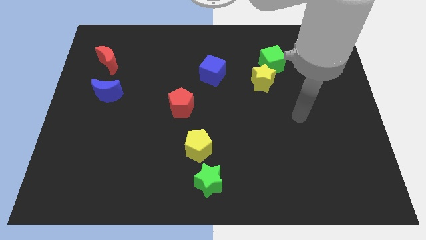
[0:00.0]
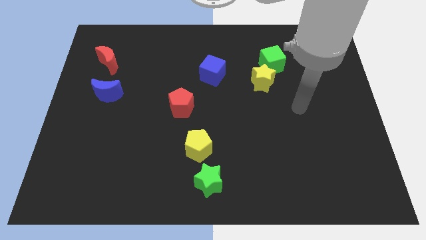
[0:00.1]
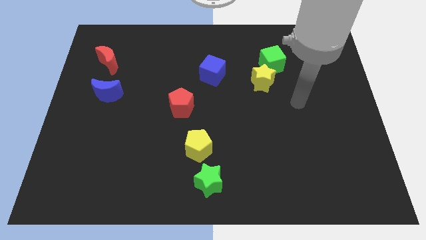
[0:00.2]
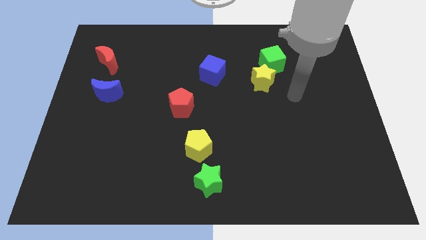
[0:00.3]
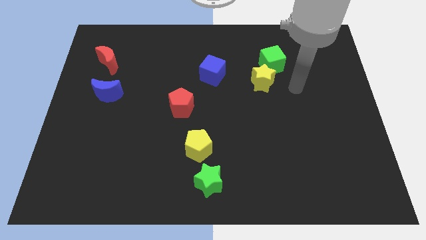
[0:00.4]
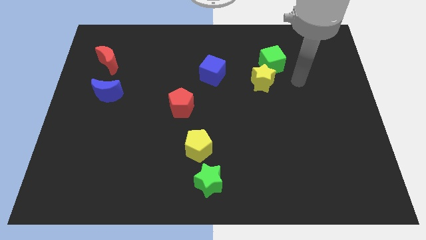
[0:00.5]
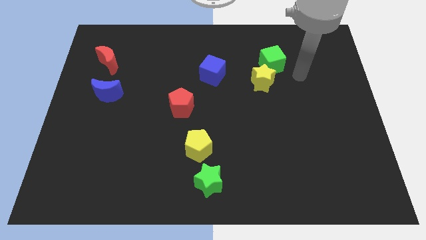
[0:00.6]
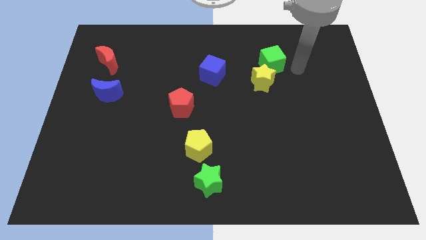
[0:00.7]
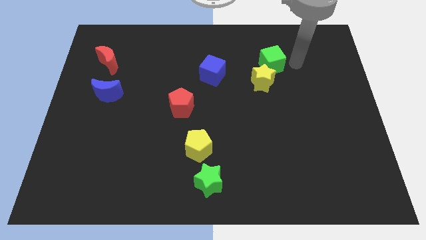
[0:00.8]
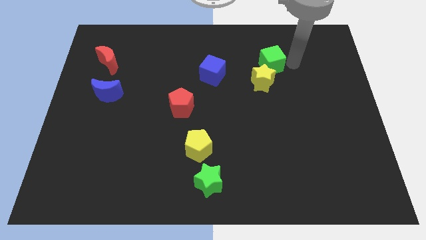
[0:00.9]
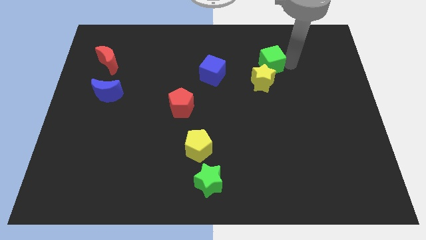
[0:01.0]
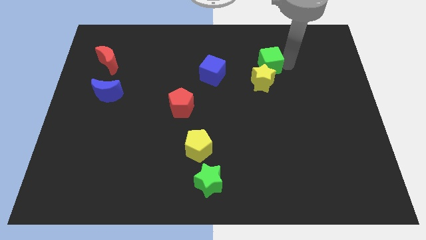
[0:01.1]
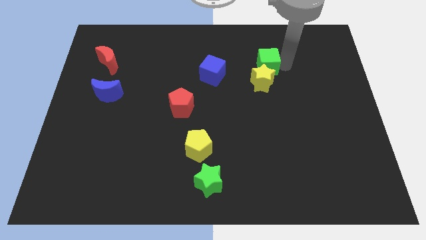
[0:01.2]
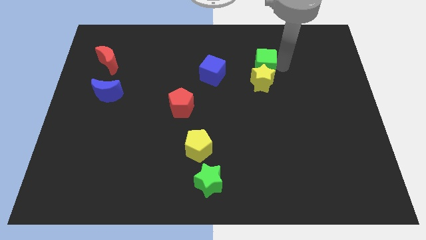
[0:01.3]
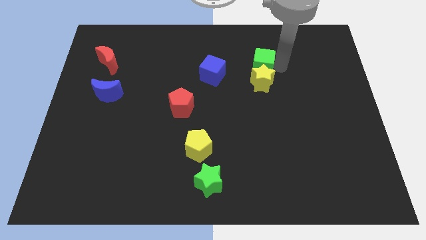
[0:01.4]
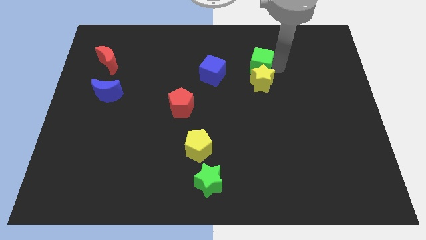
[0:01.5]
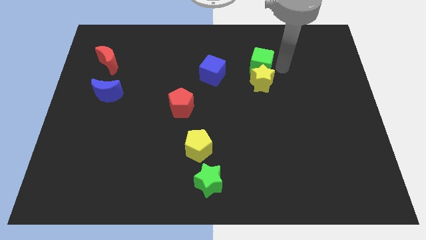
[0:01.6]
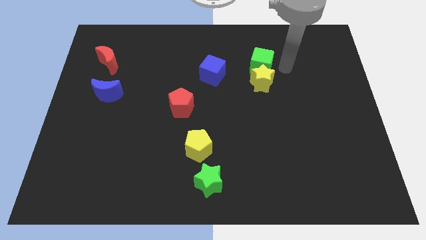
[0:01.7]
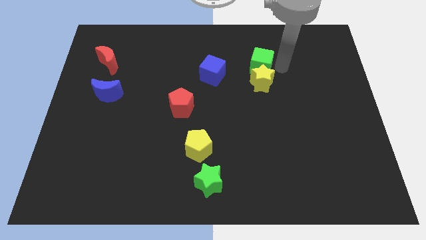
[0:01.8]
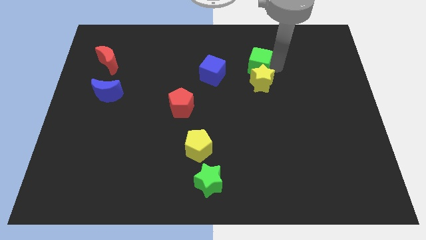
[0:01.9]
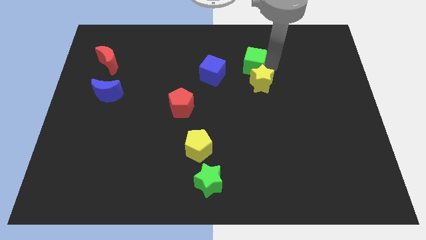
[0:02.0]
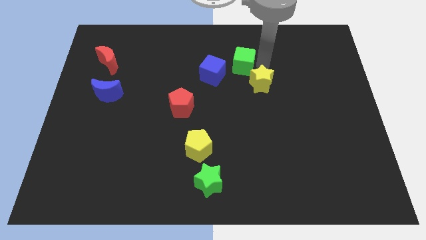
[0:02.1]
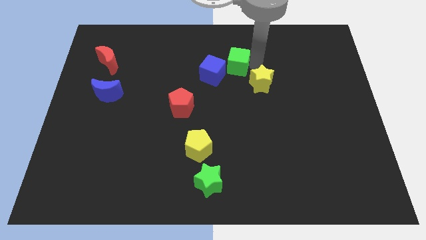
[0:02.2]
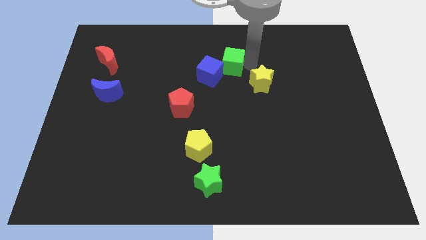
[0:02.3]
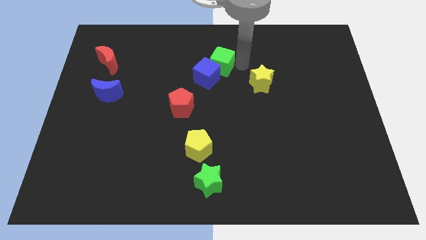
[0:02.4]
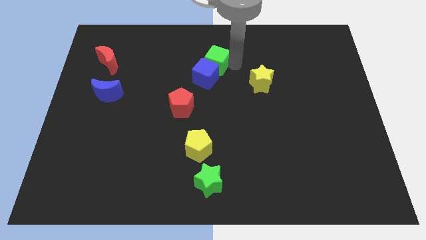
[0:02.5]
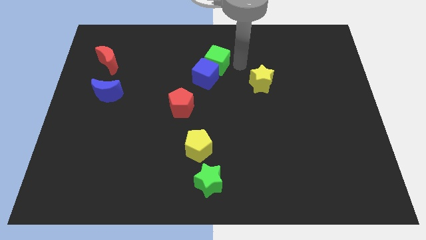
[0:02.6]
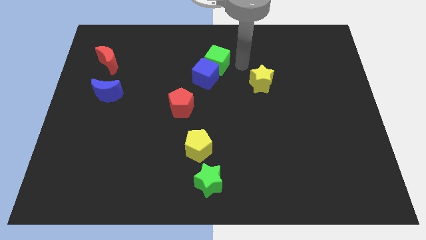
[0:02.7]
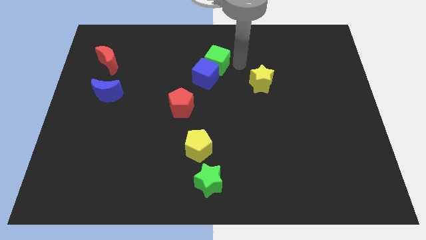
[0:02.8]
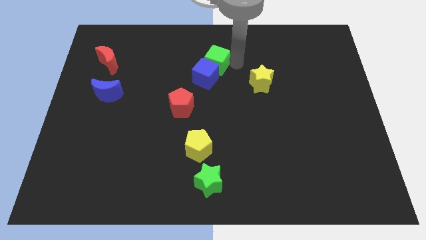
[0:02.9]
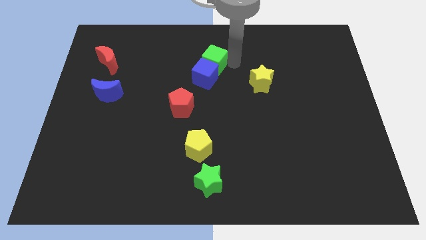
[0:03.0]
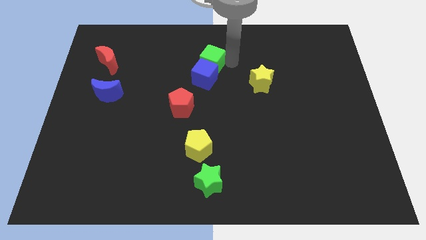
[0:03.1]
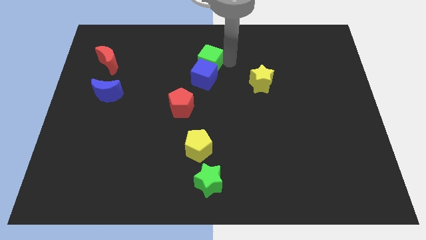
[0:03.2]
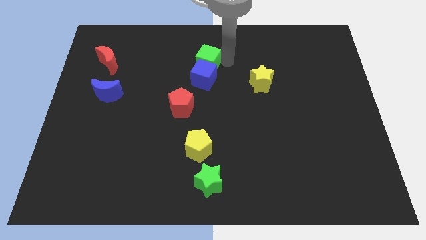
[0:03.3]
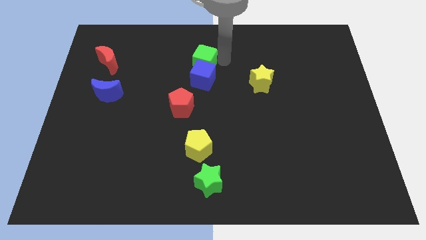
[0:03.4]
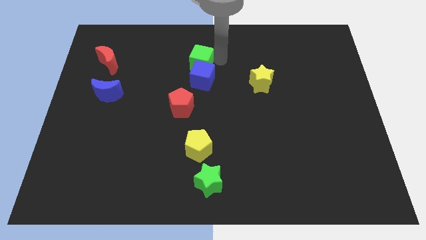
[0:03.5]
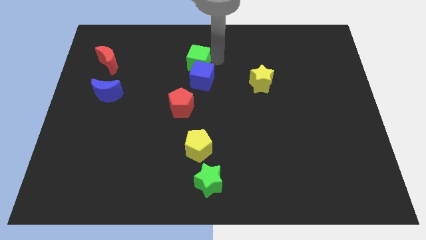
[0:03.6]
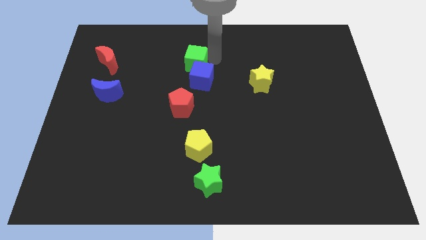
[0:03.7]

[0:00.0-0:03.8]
push the green cube left

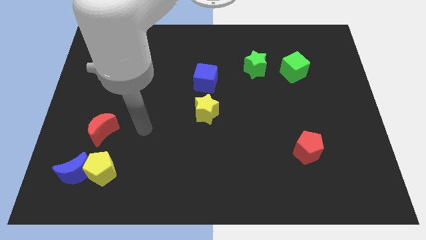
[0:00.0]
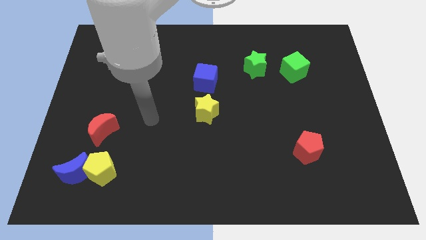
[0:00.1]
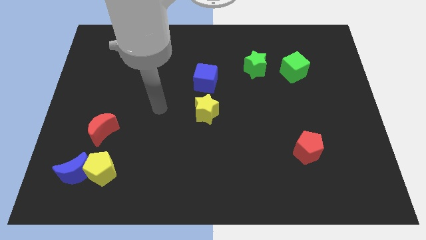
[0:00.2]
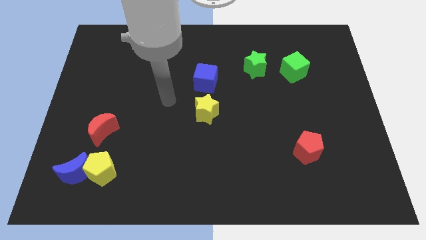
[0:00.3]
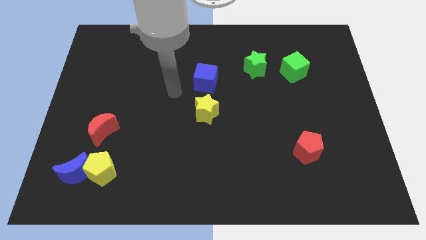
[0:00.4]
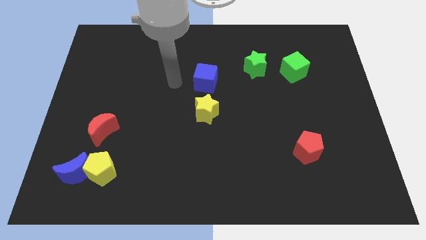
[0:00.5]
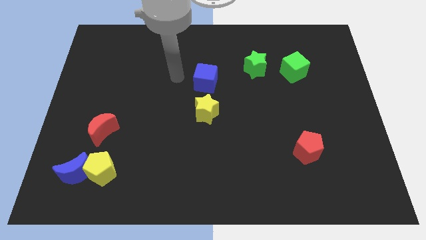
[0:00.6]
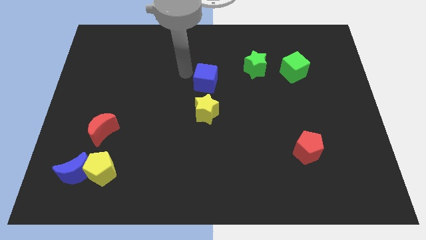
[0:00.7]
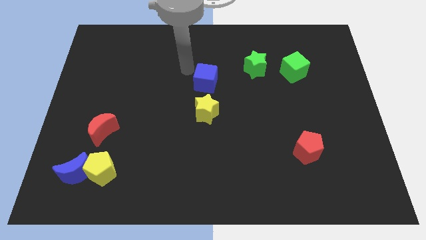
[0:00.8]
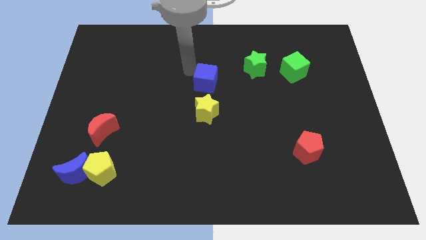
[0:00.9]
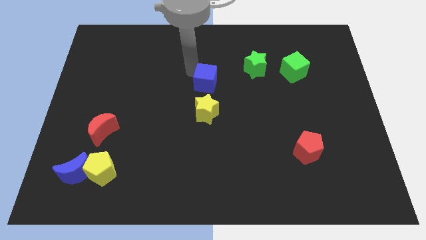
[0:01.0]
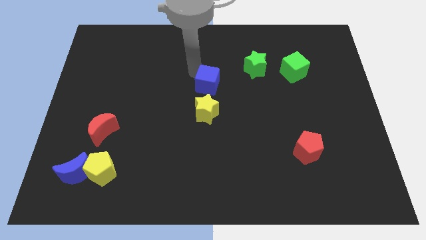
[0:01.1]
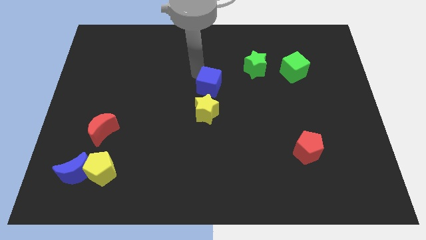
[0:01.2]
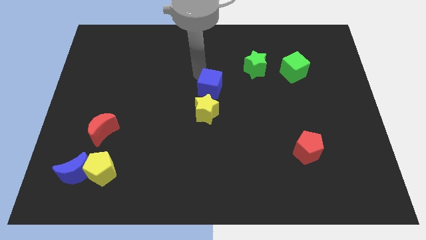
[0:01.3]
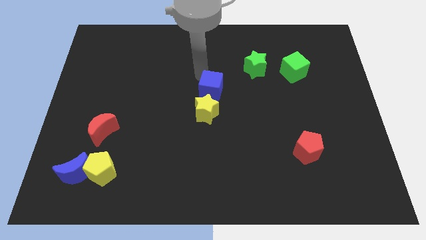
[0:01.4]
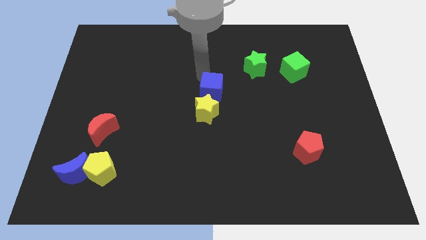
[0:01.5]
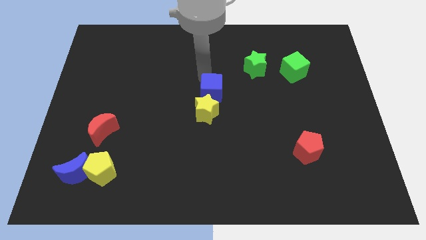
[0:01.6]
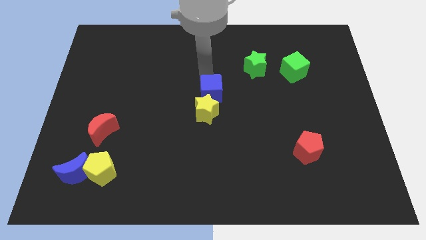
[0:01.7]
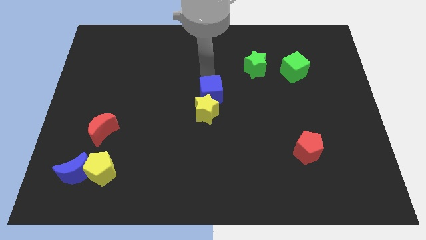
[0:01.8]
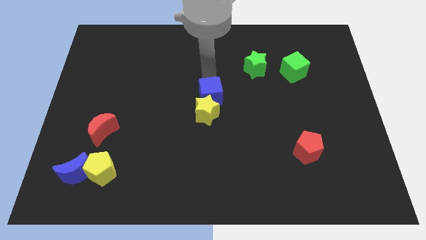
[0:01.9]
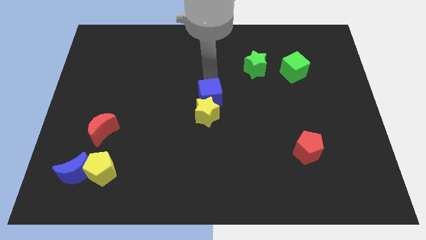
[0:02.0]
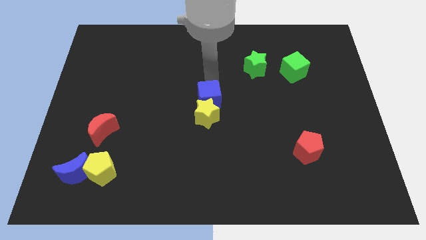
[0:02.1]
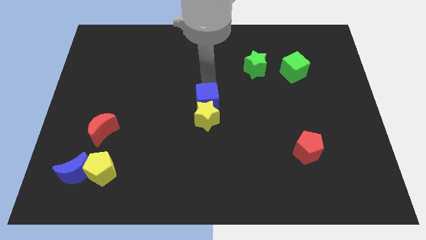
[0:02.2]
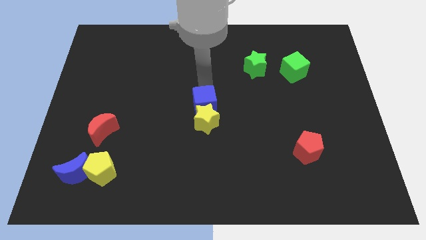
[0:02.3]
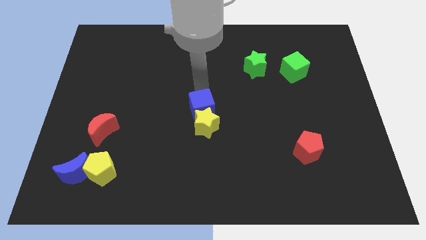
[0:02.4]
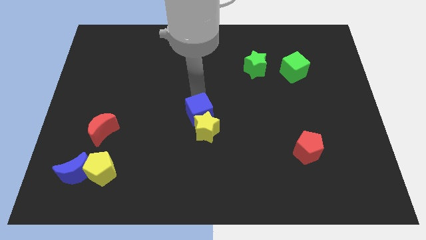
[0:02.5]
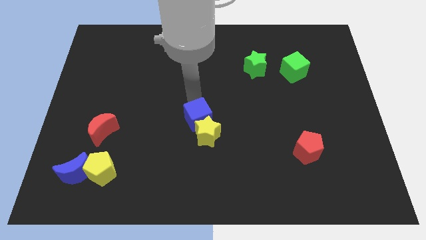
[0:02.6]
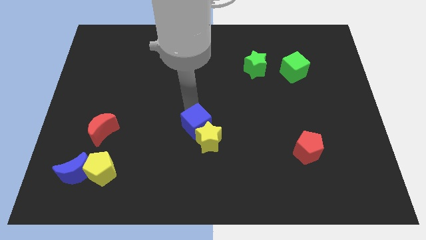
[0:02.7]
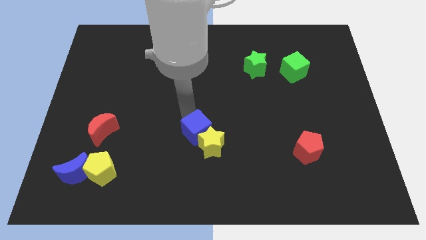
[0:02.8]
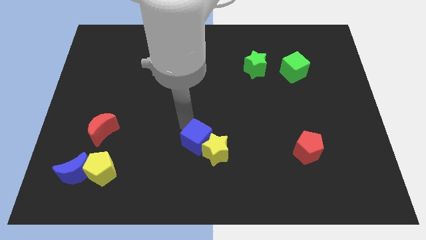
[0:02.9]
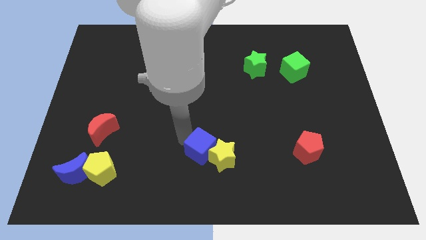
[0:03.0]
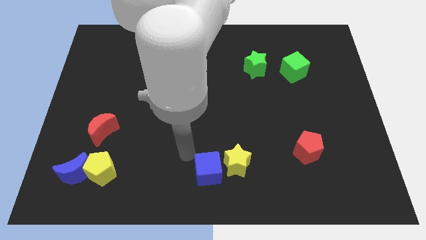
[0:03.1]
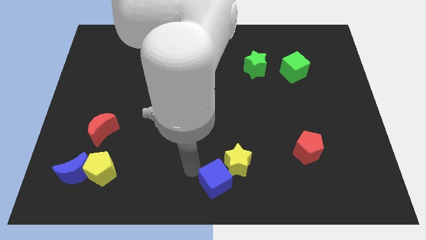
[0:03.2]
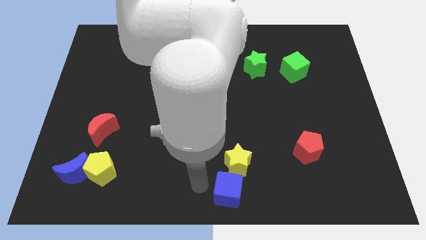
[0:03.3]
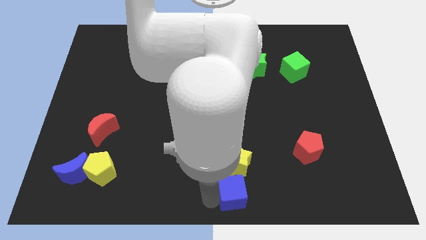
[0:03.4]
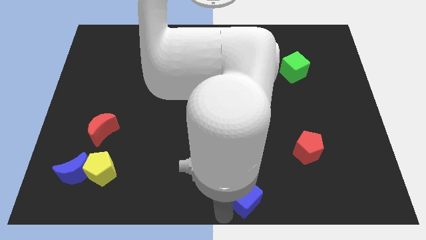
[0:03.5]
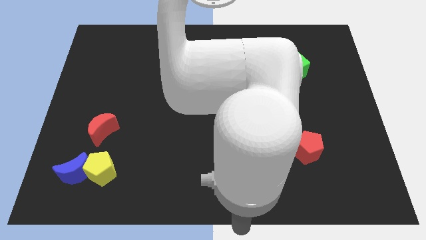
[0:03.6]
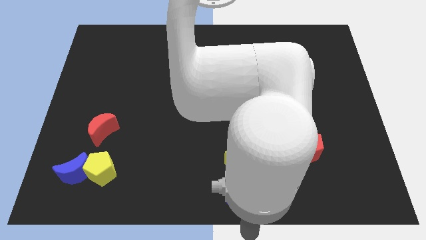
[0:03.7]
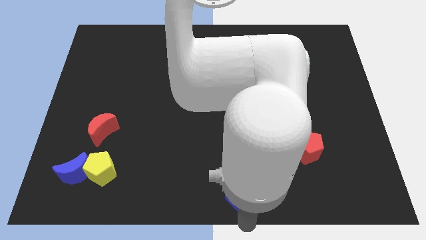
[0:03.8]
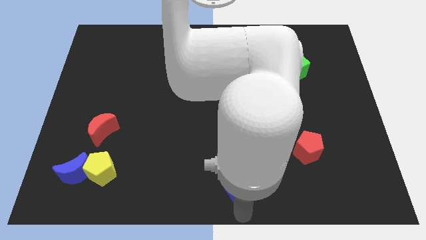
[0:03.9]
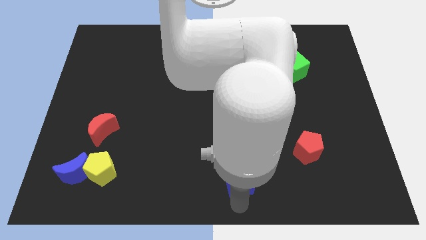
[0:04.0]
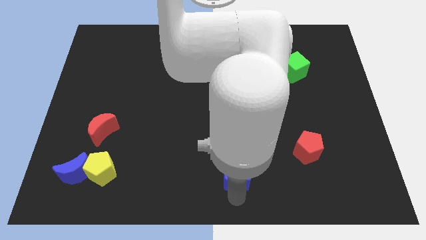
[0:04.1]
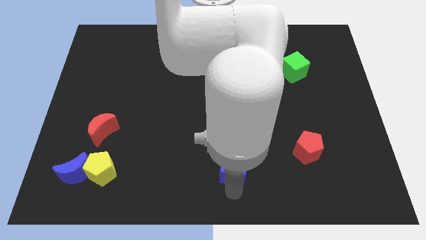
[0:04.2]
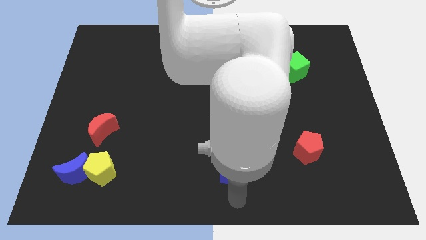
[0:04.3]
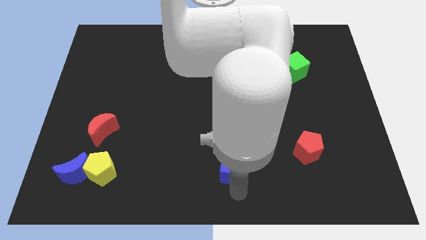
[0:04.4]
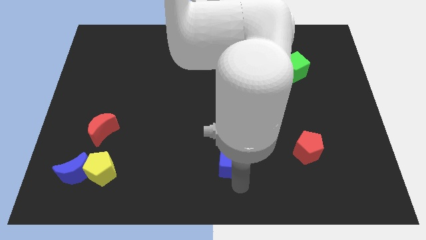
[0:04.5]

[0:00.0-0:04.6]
slightly slide the blue cube downwards and then right
